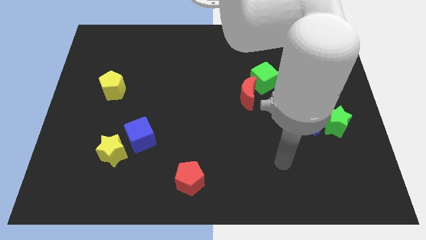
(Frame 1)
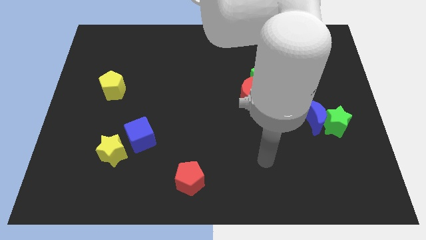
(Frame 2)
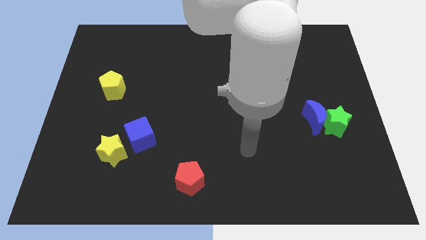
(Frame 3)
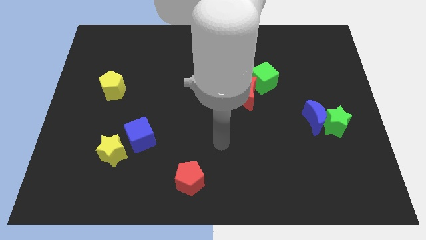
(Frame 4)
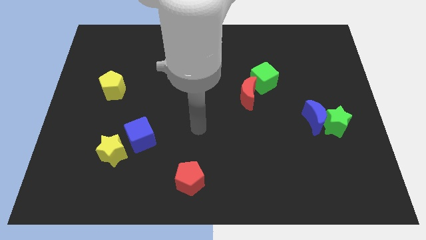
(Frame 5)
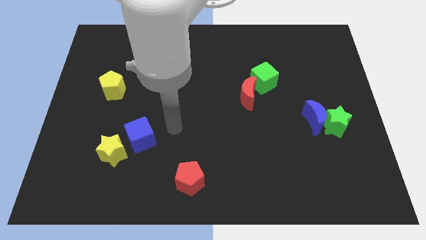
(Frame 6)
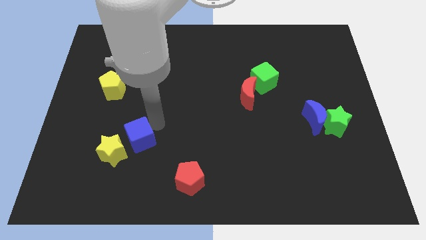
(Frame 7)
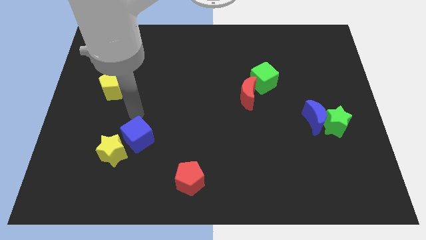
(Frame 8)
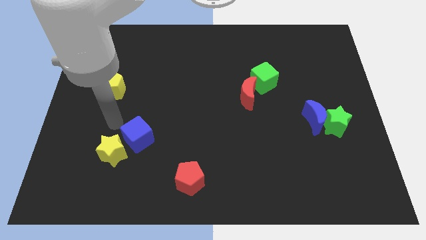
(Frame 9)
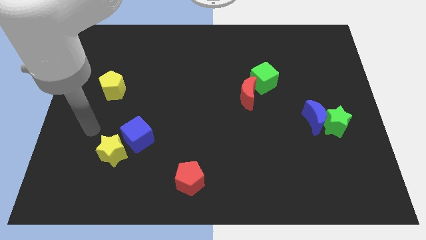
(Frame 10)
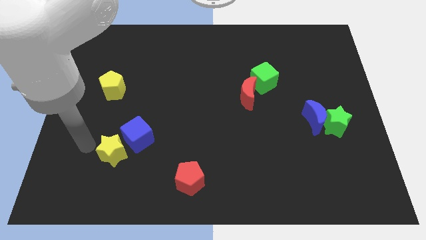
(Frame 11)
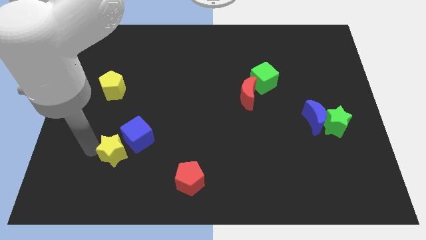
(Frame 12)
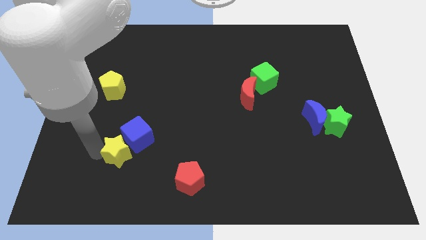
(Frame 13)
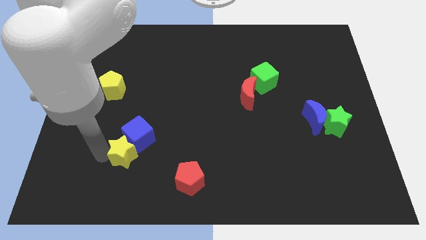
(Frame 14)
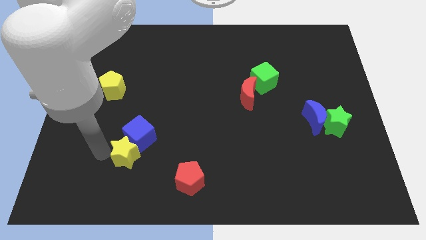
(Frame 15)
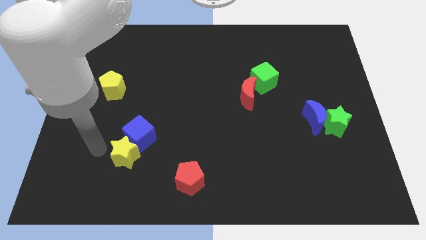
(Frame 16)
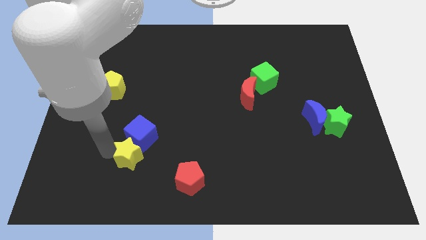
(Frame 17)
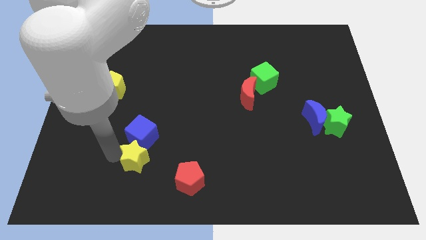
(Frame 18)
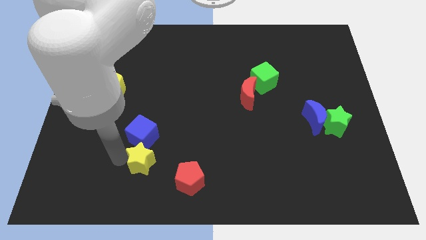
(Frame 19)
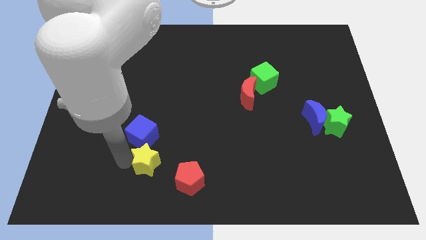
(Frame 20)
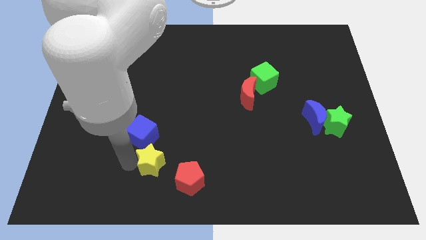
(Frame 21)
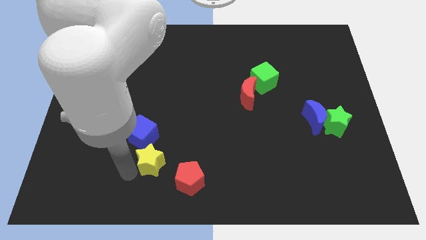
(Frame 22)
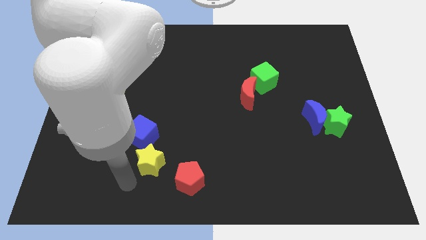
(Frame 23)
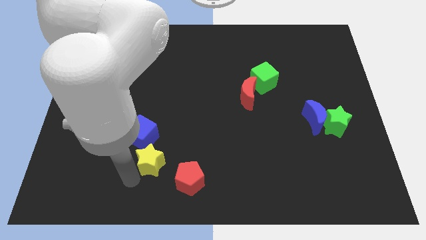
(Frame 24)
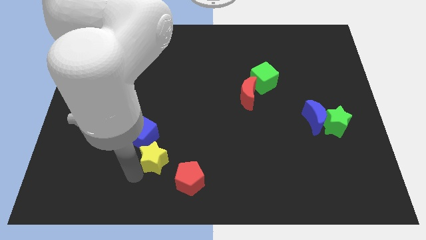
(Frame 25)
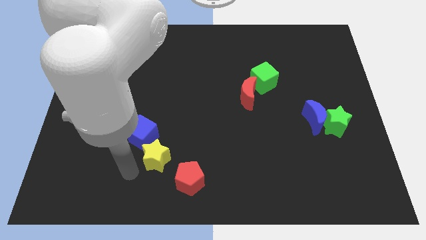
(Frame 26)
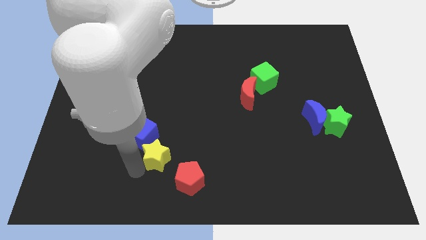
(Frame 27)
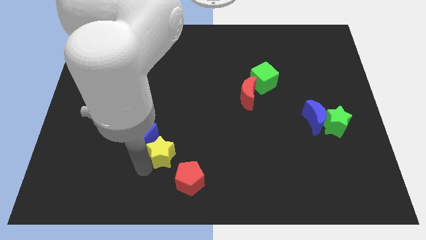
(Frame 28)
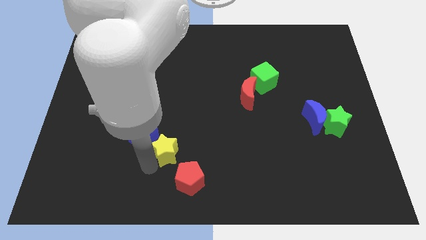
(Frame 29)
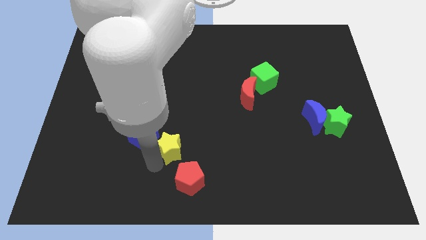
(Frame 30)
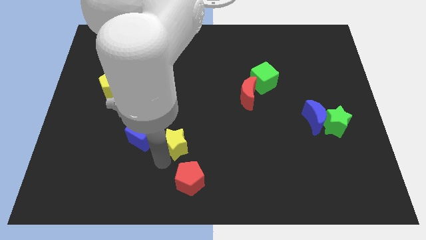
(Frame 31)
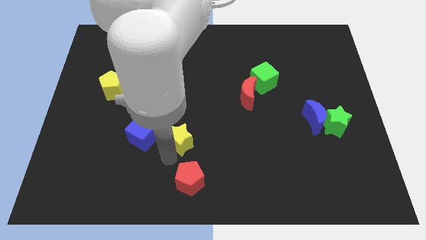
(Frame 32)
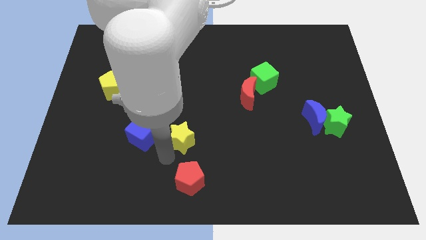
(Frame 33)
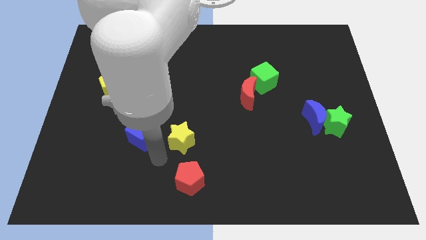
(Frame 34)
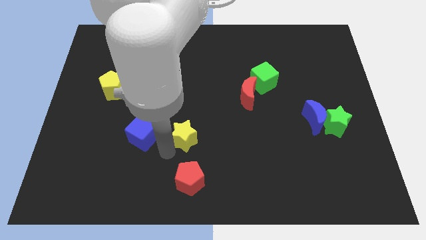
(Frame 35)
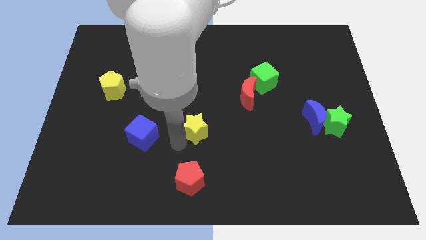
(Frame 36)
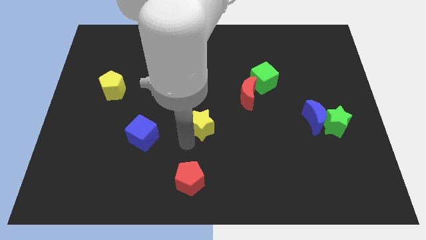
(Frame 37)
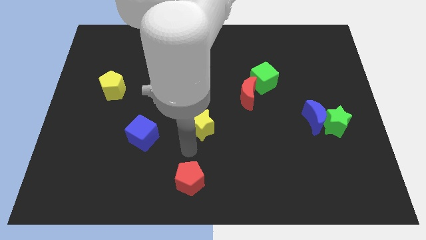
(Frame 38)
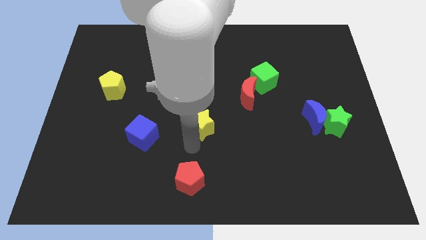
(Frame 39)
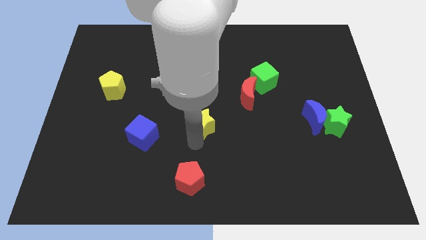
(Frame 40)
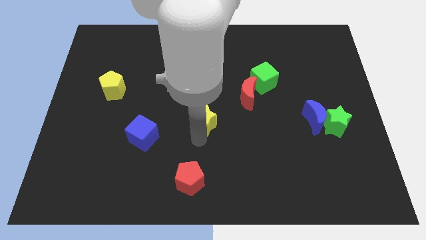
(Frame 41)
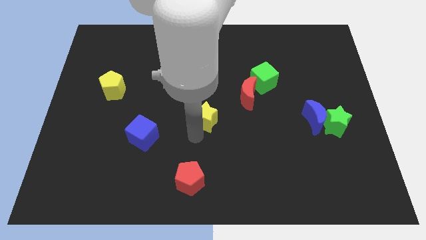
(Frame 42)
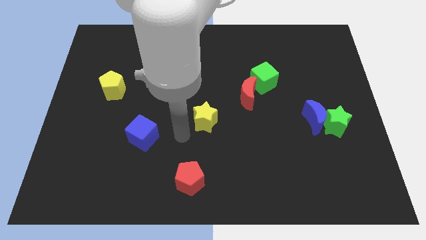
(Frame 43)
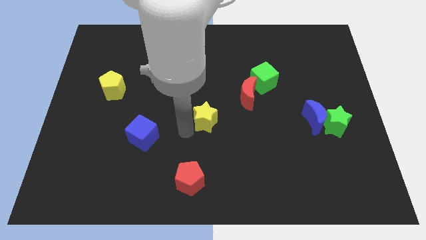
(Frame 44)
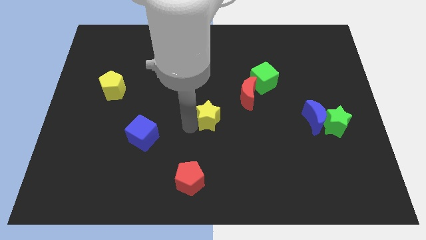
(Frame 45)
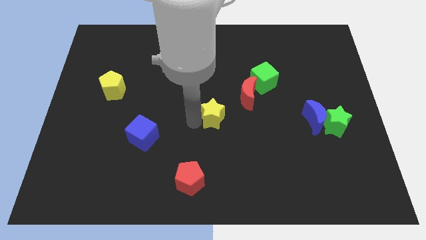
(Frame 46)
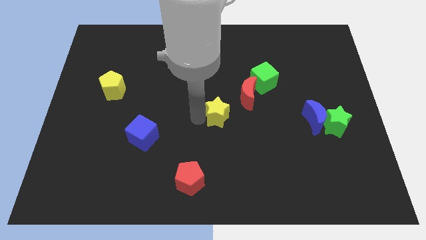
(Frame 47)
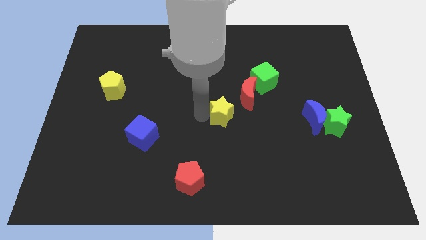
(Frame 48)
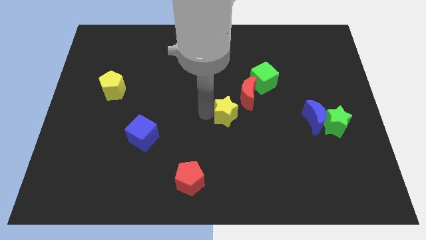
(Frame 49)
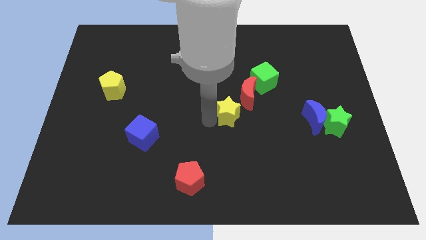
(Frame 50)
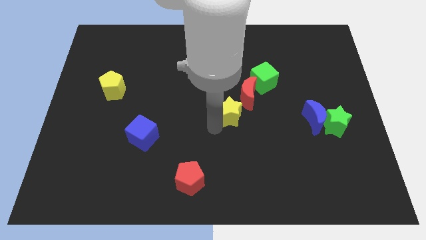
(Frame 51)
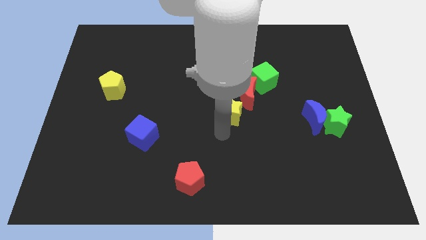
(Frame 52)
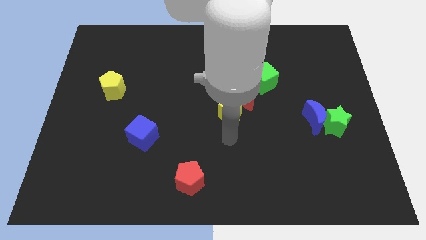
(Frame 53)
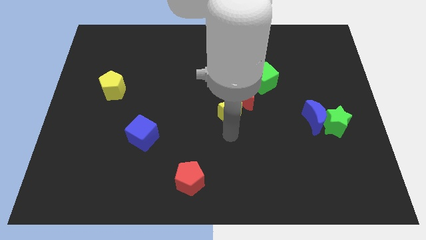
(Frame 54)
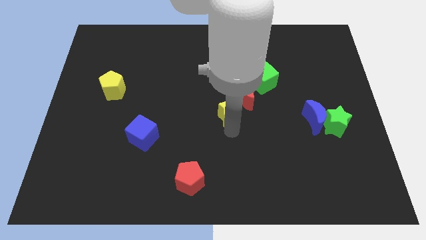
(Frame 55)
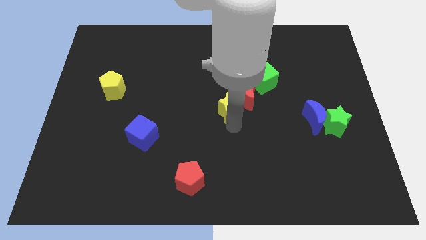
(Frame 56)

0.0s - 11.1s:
move the yellow star to the red moon

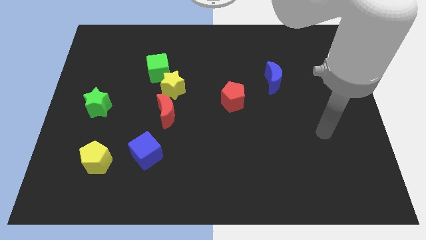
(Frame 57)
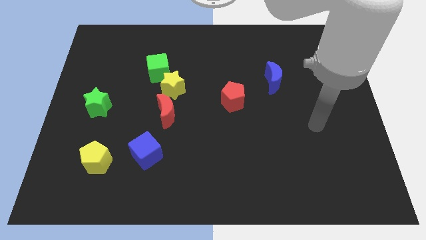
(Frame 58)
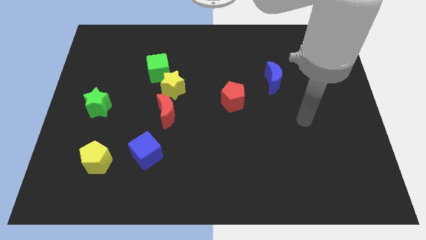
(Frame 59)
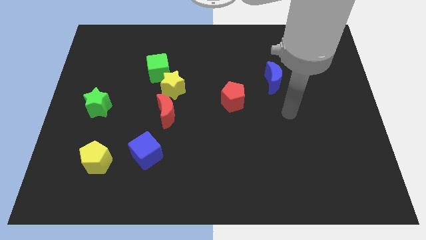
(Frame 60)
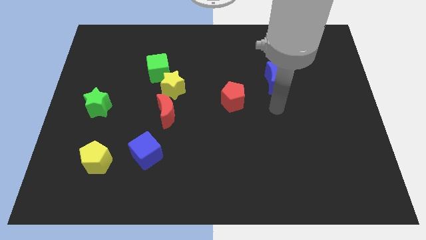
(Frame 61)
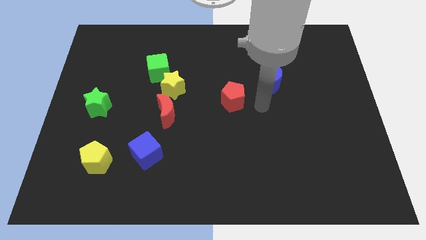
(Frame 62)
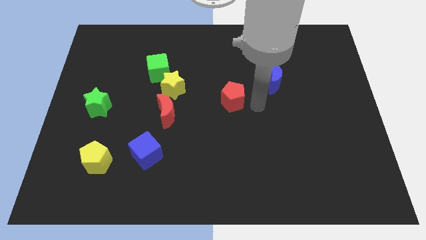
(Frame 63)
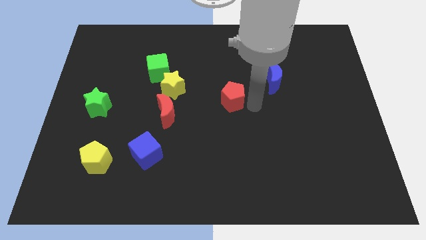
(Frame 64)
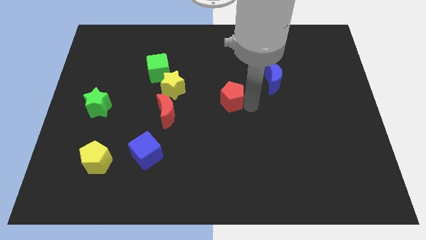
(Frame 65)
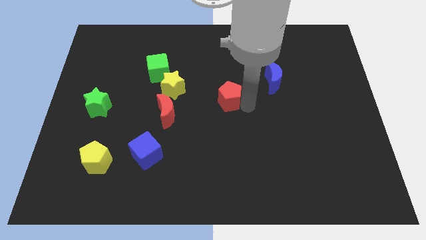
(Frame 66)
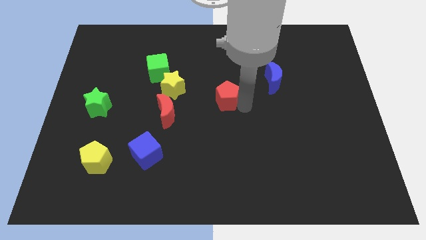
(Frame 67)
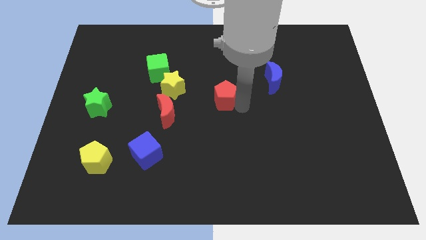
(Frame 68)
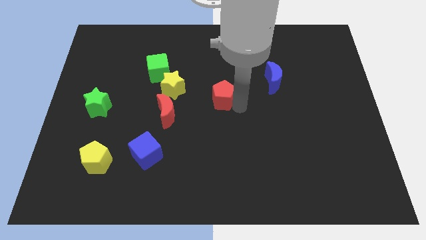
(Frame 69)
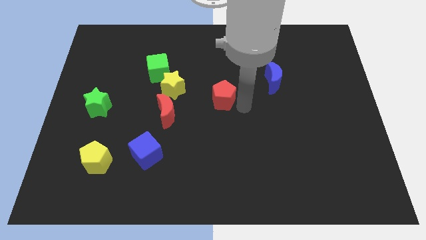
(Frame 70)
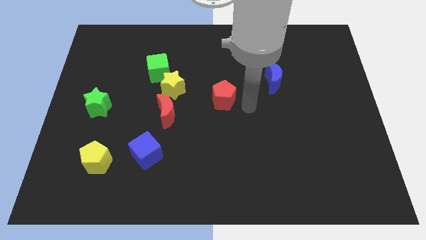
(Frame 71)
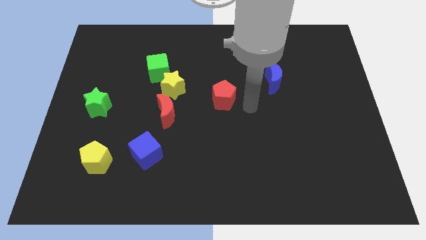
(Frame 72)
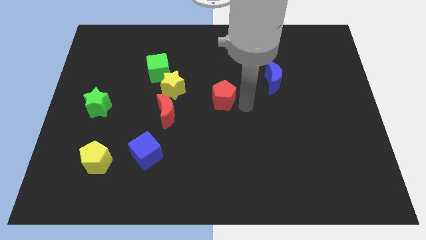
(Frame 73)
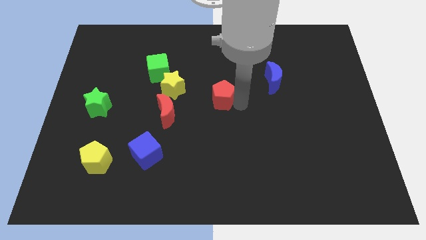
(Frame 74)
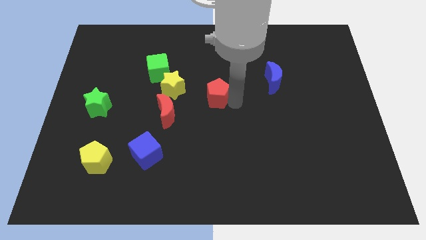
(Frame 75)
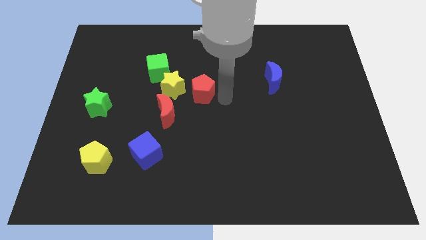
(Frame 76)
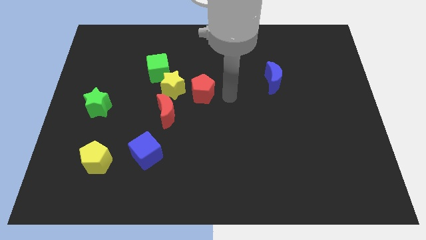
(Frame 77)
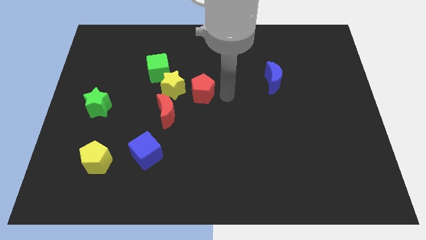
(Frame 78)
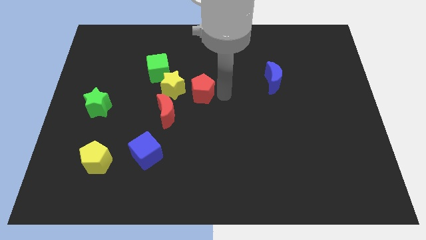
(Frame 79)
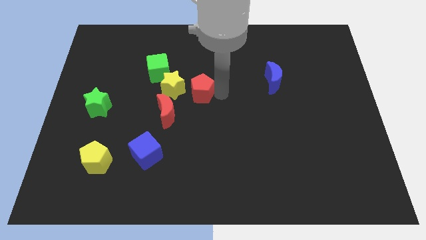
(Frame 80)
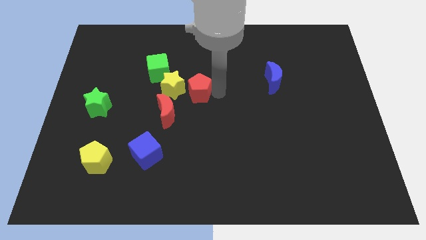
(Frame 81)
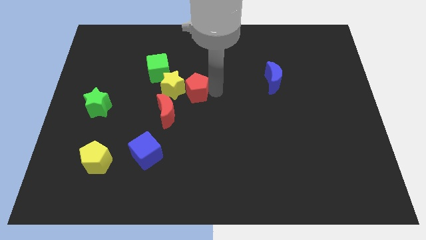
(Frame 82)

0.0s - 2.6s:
move the red pentagon to the yellow star
